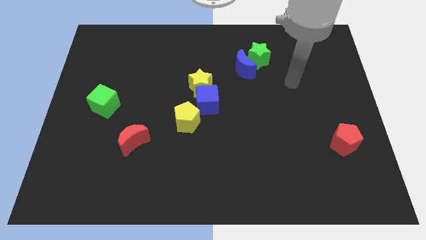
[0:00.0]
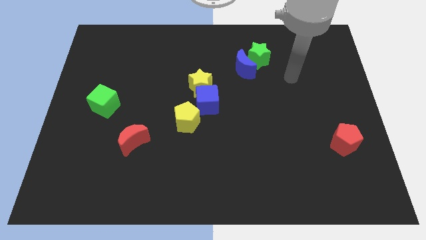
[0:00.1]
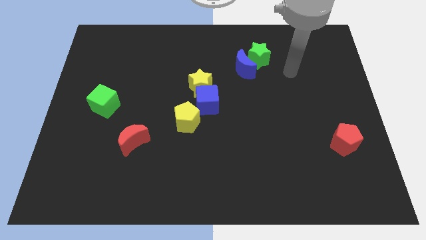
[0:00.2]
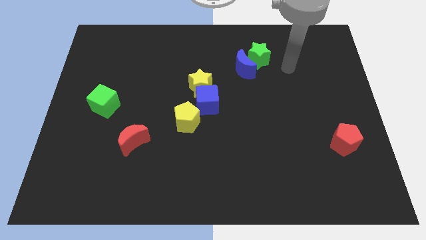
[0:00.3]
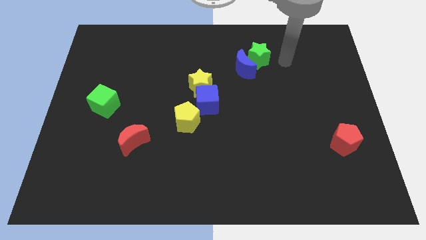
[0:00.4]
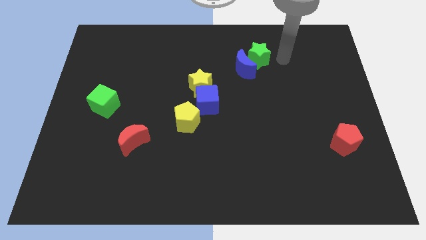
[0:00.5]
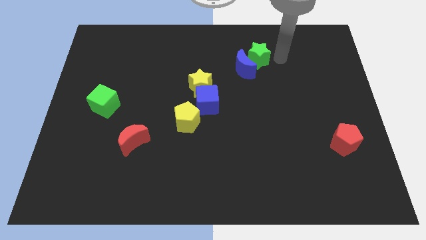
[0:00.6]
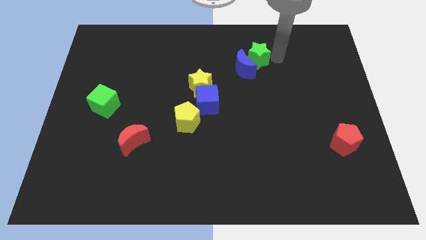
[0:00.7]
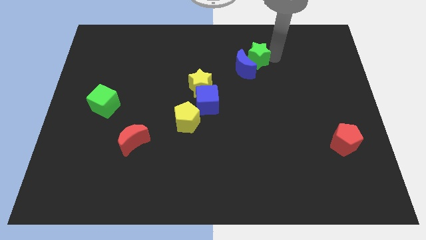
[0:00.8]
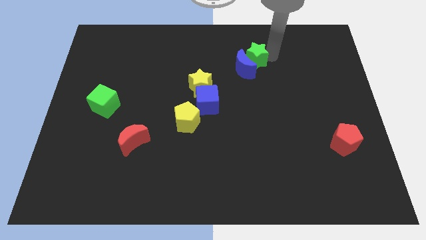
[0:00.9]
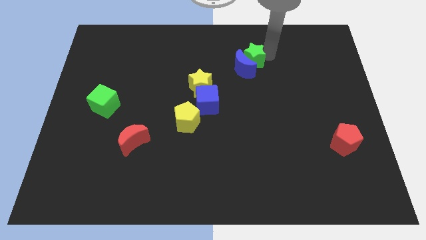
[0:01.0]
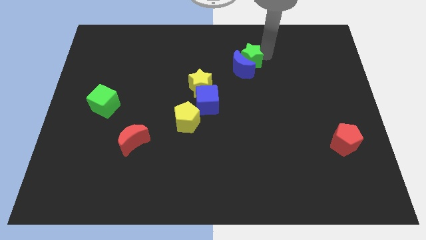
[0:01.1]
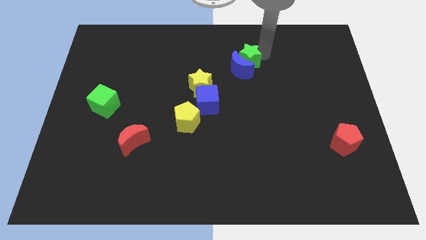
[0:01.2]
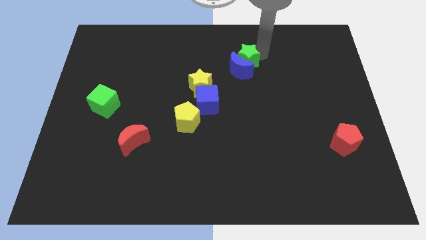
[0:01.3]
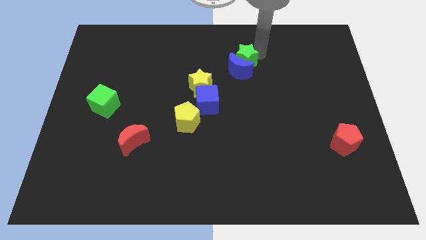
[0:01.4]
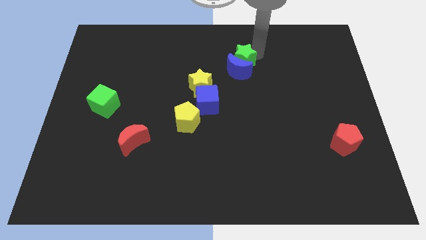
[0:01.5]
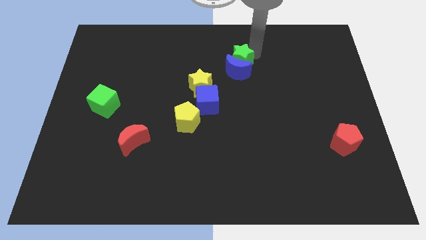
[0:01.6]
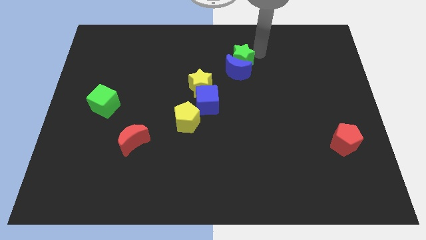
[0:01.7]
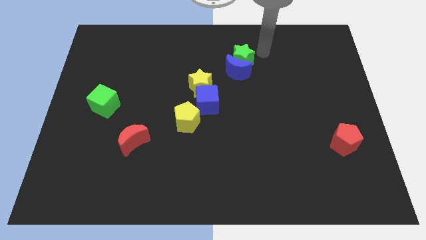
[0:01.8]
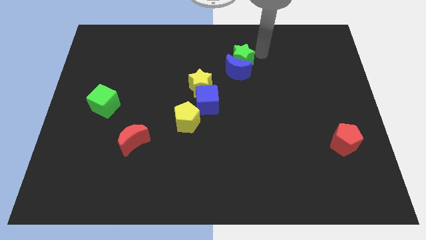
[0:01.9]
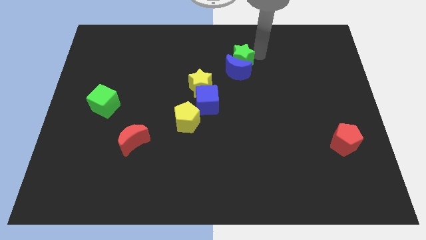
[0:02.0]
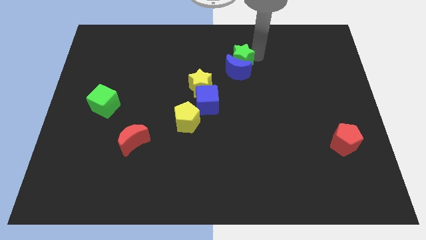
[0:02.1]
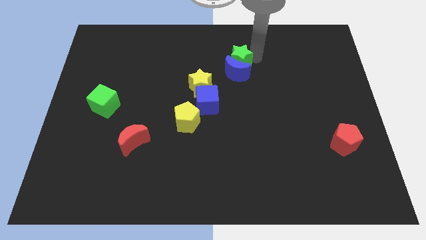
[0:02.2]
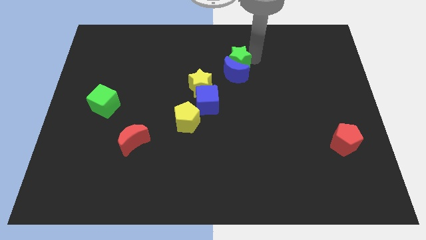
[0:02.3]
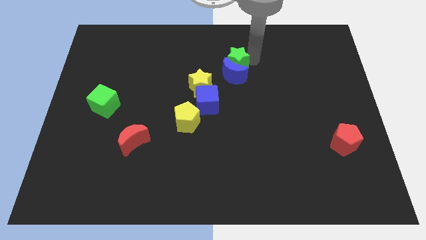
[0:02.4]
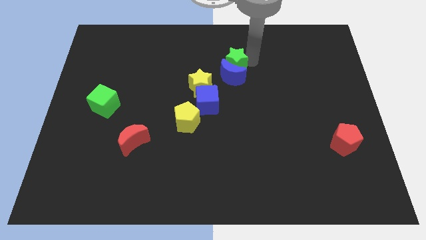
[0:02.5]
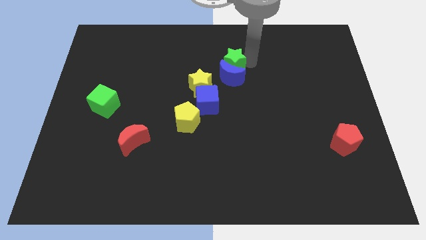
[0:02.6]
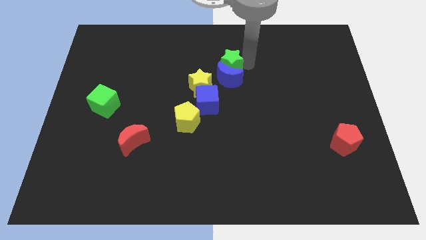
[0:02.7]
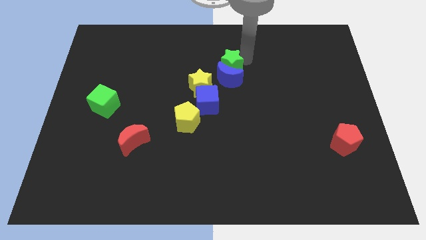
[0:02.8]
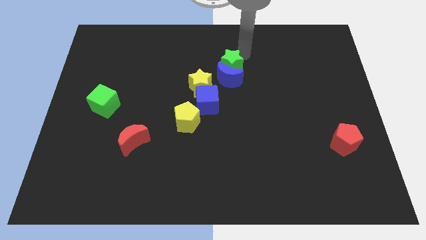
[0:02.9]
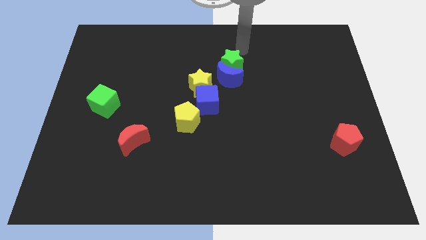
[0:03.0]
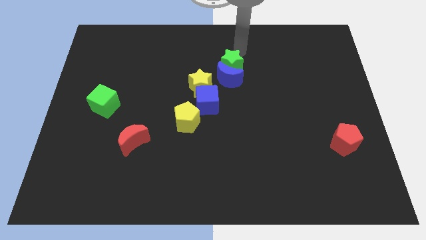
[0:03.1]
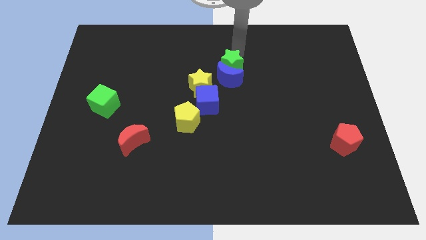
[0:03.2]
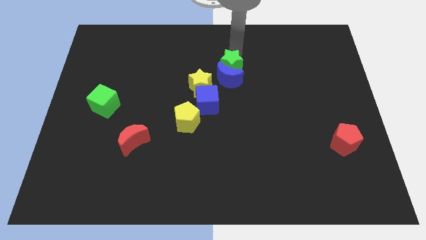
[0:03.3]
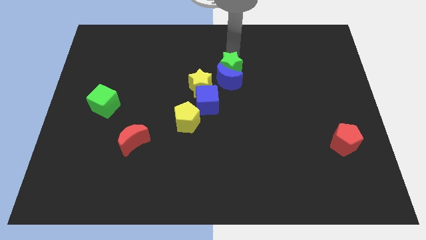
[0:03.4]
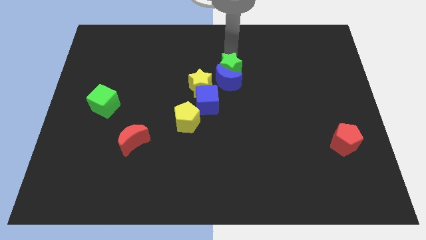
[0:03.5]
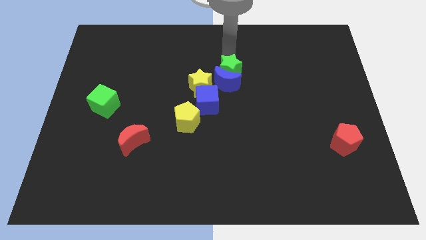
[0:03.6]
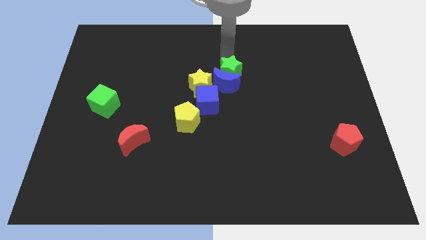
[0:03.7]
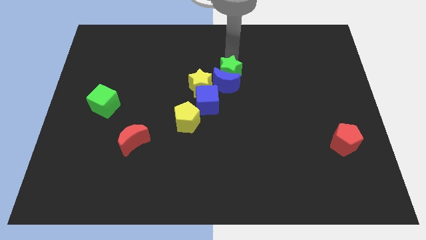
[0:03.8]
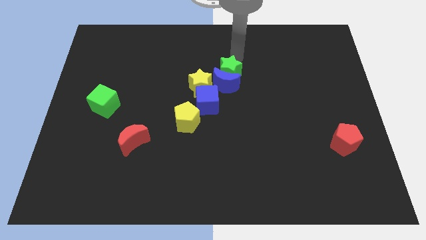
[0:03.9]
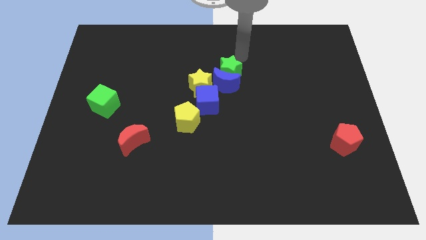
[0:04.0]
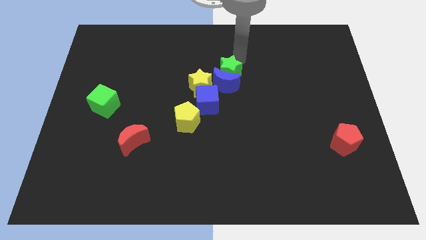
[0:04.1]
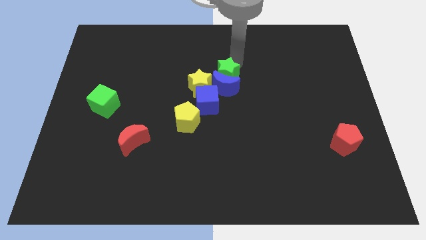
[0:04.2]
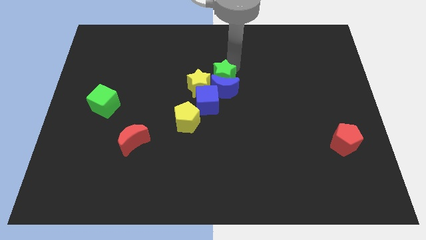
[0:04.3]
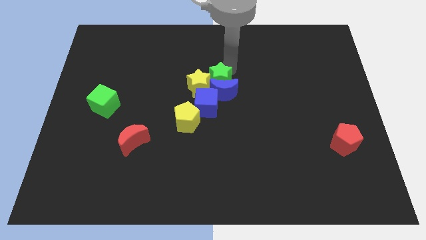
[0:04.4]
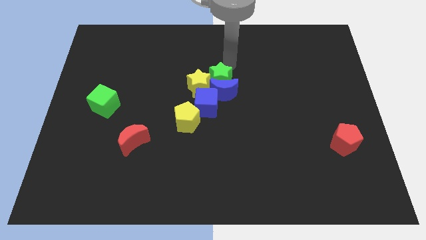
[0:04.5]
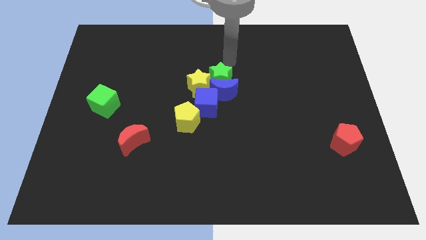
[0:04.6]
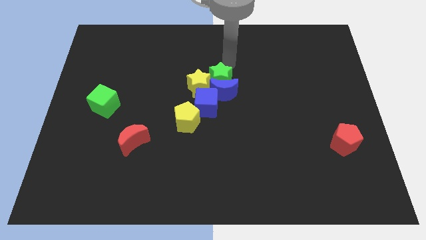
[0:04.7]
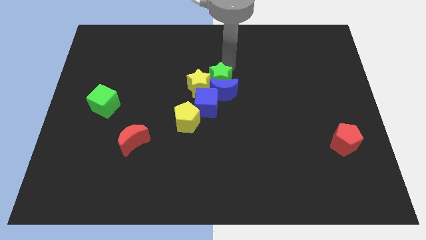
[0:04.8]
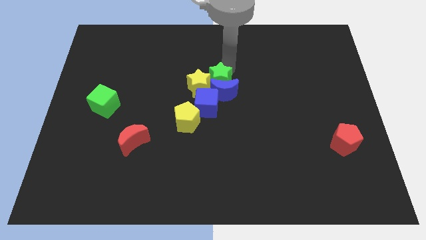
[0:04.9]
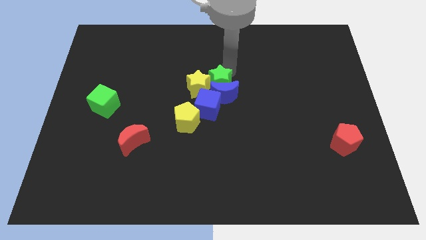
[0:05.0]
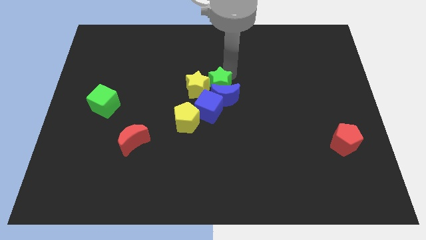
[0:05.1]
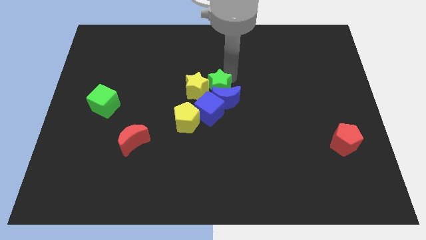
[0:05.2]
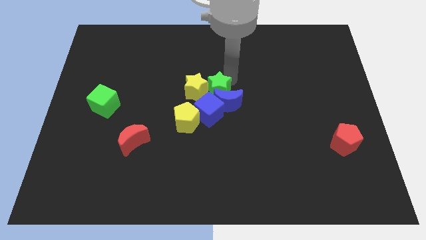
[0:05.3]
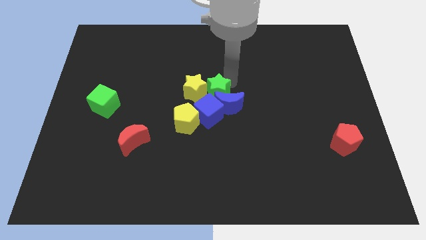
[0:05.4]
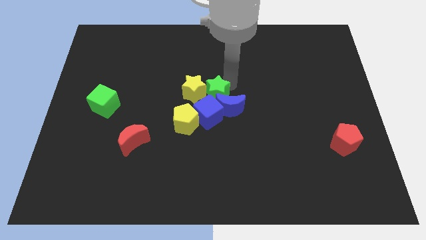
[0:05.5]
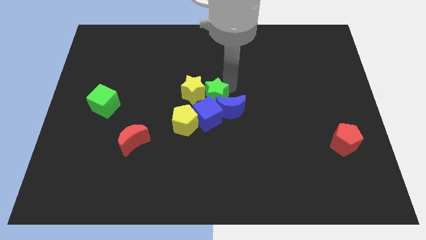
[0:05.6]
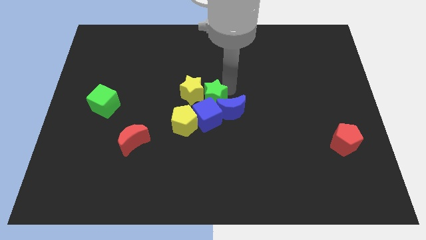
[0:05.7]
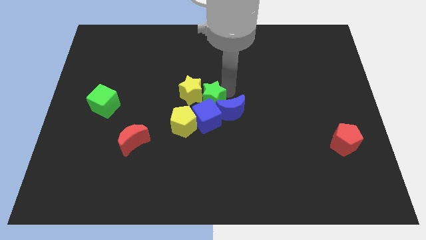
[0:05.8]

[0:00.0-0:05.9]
put the green star close to the blue cube

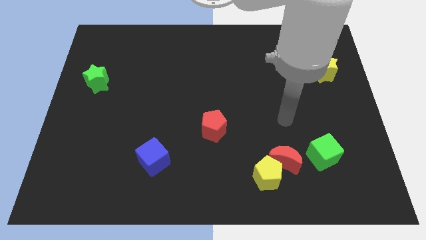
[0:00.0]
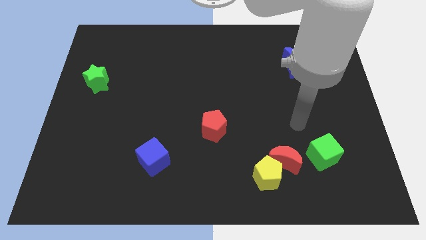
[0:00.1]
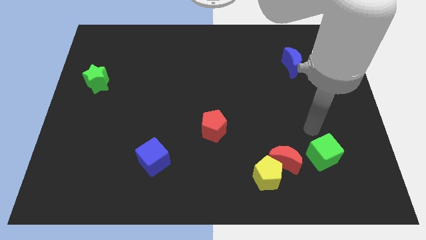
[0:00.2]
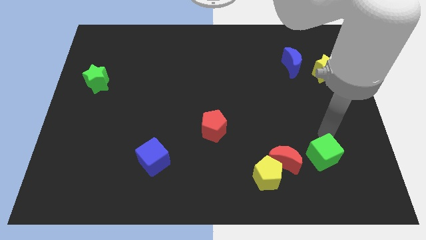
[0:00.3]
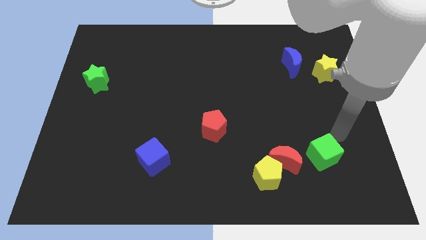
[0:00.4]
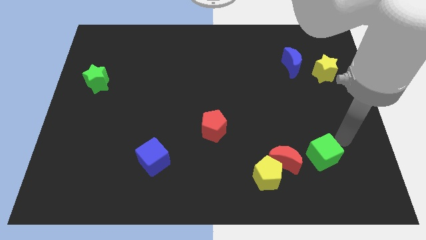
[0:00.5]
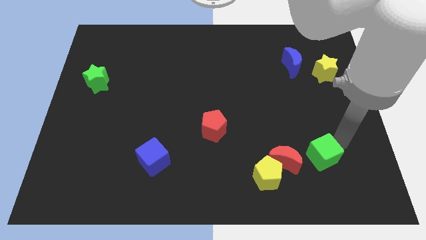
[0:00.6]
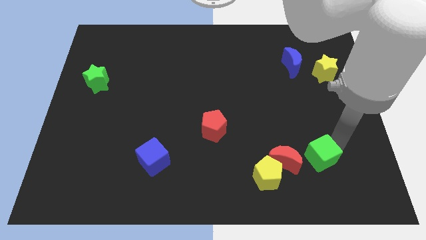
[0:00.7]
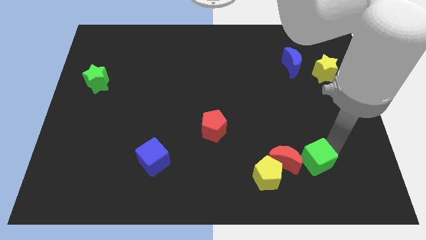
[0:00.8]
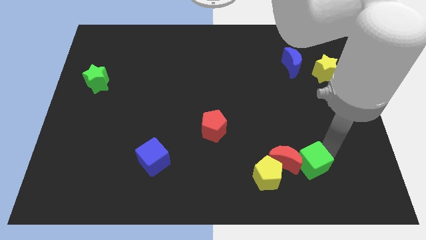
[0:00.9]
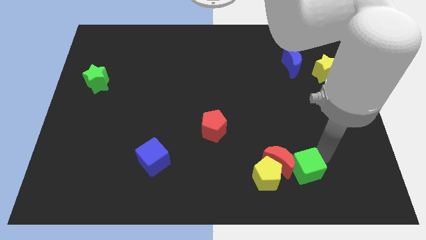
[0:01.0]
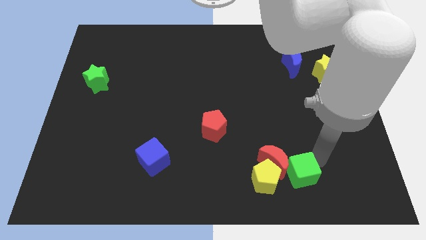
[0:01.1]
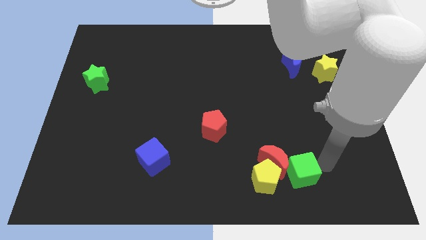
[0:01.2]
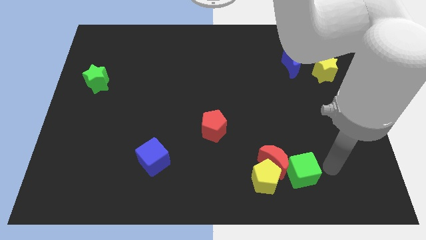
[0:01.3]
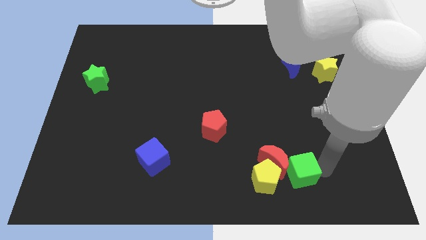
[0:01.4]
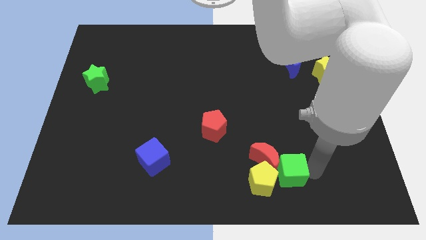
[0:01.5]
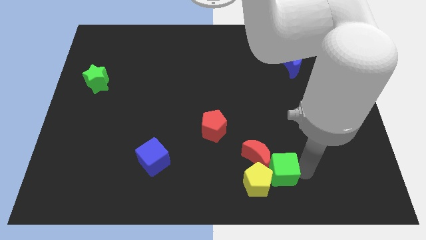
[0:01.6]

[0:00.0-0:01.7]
push the green cube towards the yellow pentagon
